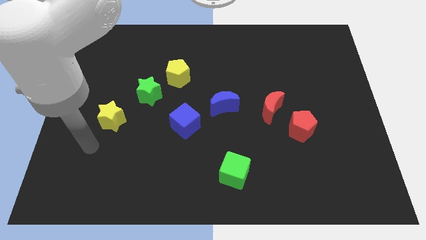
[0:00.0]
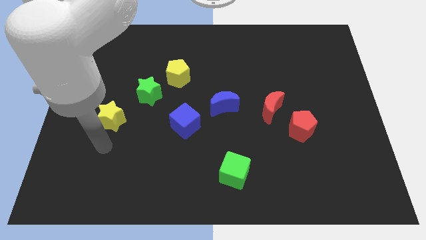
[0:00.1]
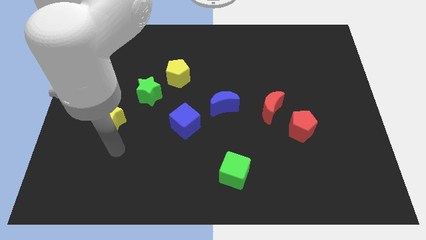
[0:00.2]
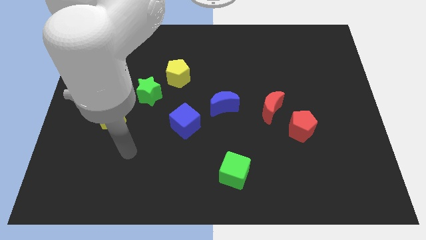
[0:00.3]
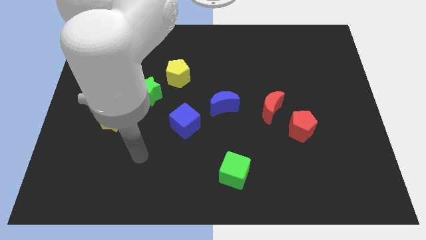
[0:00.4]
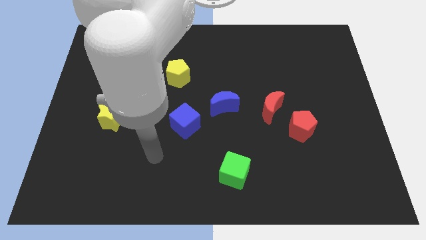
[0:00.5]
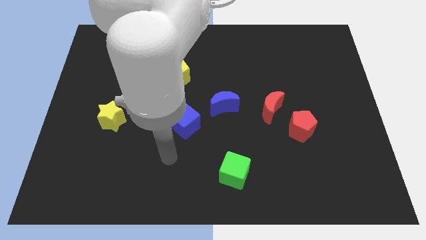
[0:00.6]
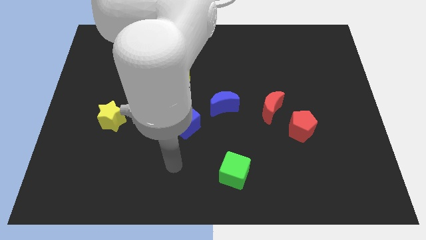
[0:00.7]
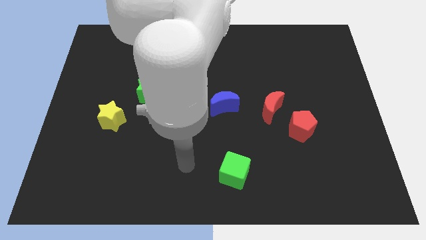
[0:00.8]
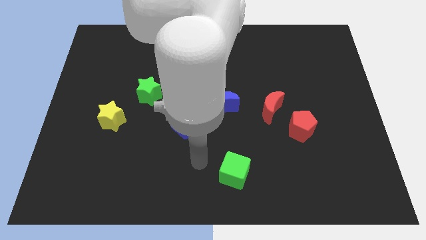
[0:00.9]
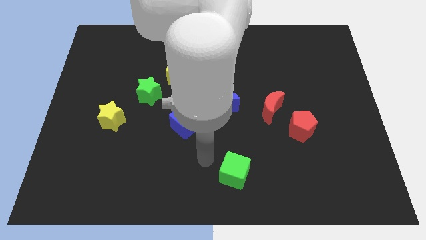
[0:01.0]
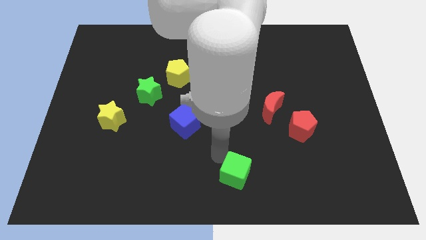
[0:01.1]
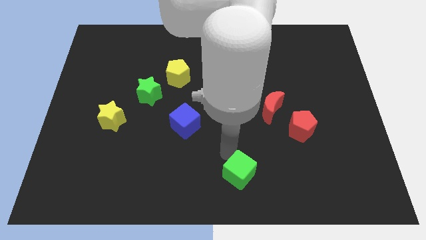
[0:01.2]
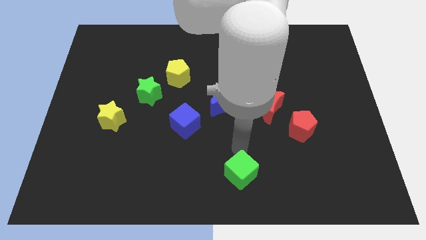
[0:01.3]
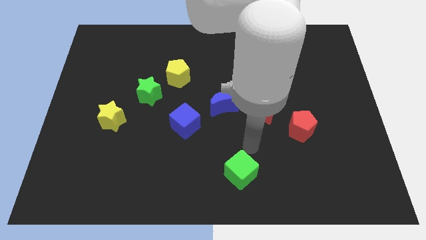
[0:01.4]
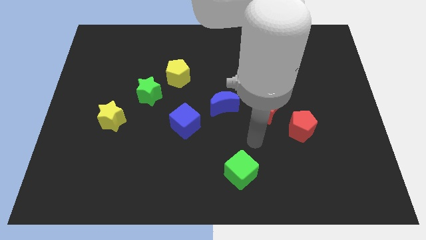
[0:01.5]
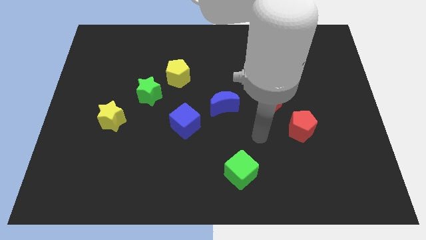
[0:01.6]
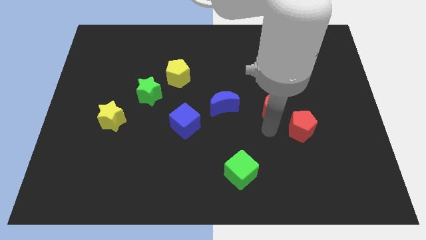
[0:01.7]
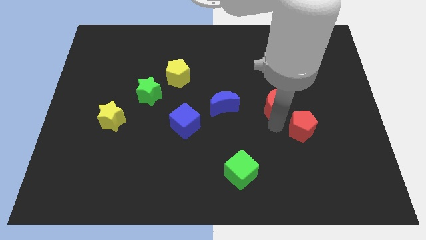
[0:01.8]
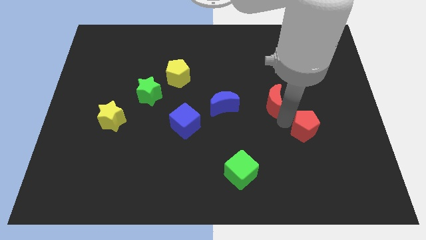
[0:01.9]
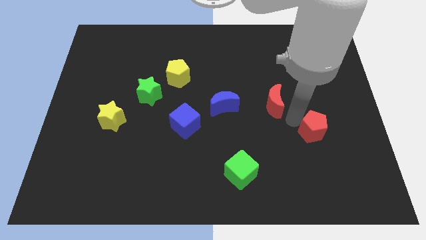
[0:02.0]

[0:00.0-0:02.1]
move the red moon away from the red pentagon

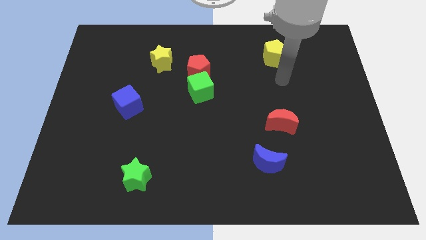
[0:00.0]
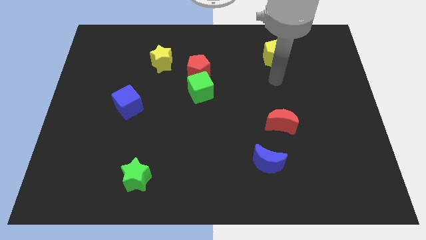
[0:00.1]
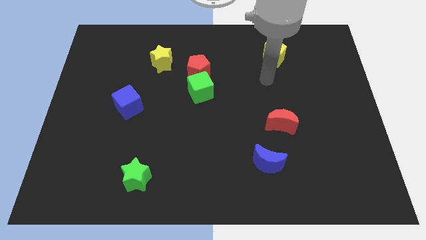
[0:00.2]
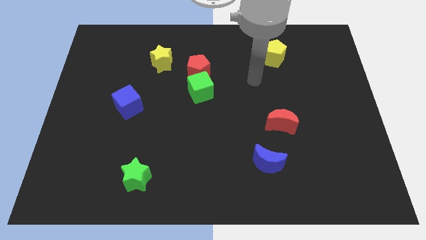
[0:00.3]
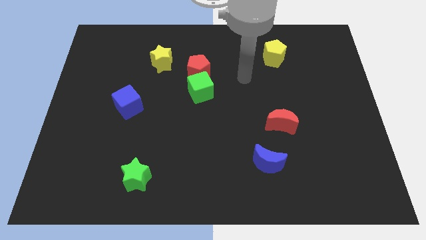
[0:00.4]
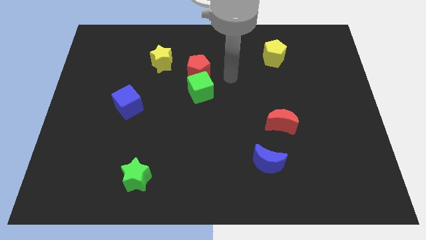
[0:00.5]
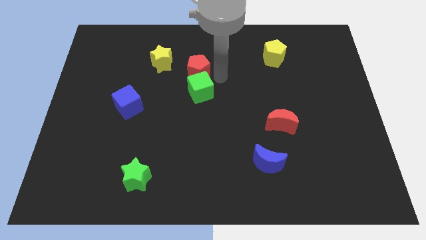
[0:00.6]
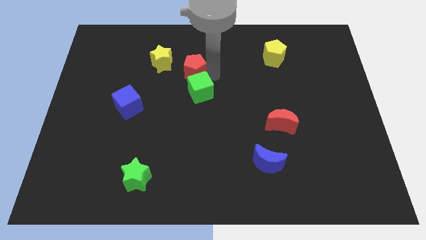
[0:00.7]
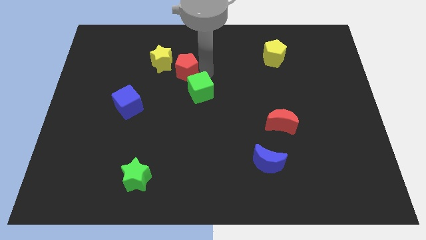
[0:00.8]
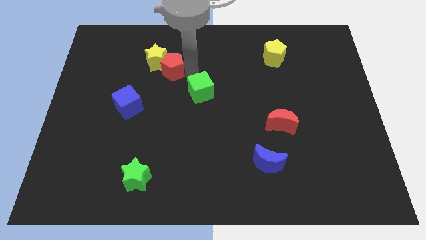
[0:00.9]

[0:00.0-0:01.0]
move the green cube away from the red pentagon

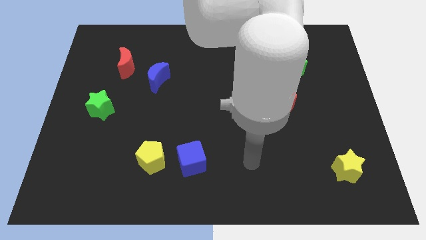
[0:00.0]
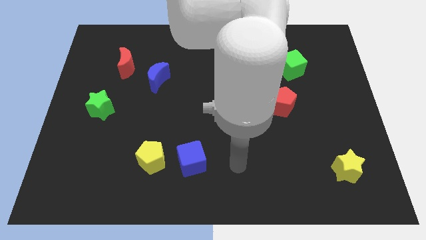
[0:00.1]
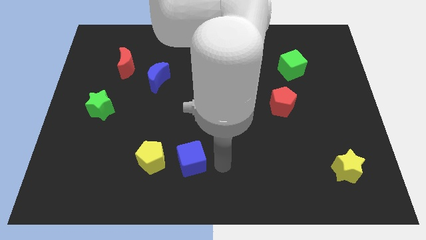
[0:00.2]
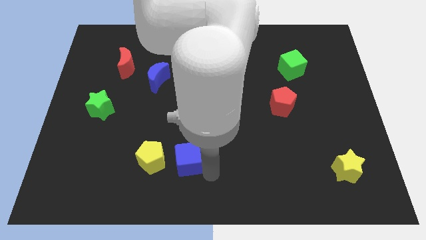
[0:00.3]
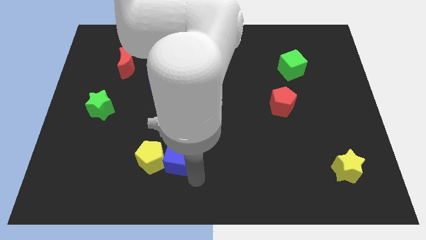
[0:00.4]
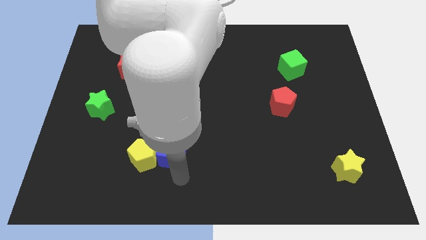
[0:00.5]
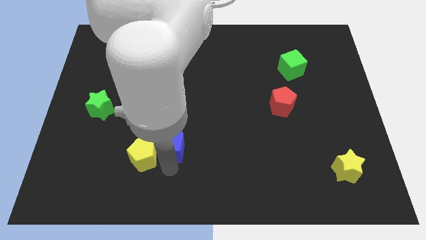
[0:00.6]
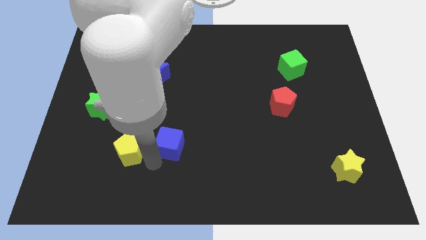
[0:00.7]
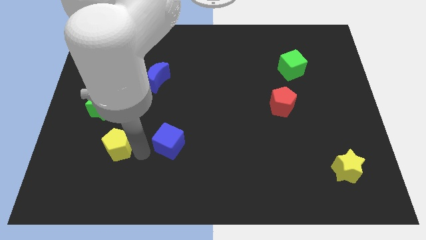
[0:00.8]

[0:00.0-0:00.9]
separate the blue cube from the yellow pentagon

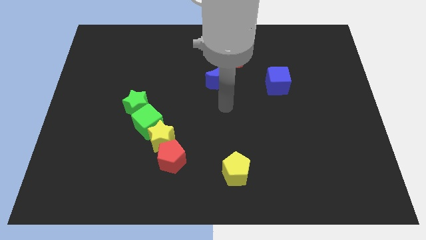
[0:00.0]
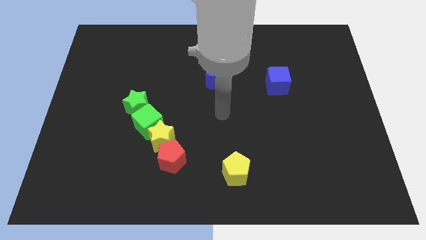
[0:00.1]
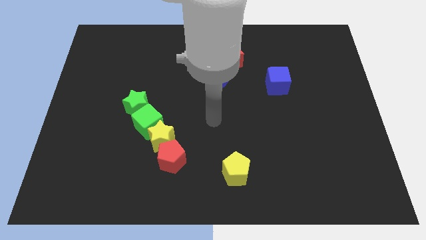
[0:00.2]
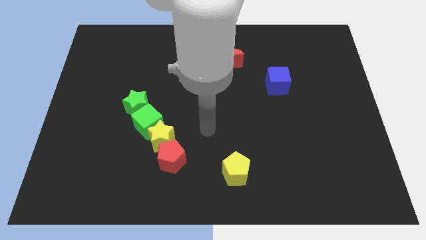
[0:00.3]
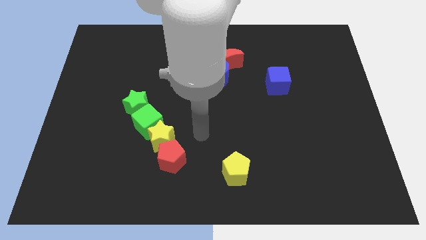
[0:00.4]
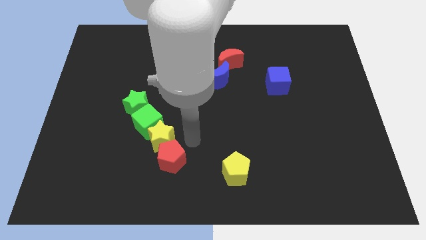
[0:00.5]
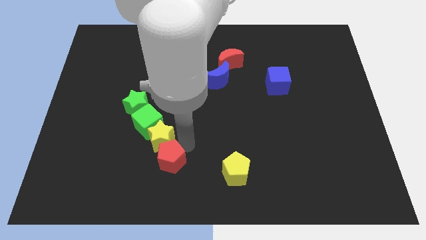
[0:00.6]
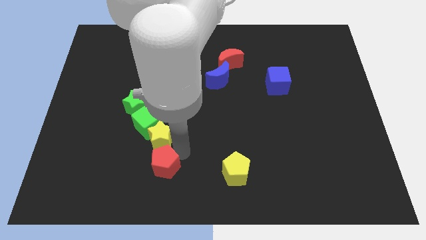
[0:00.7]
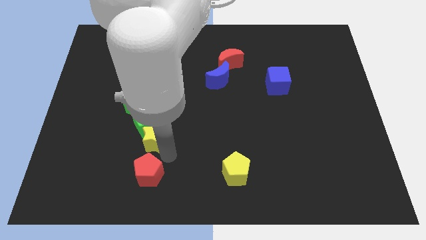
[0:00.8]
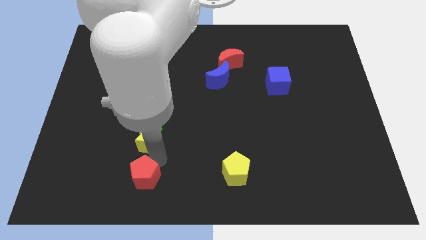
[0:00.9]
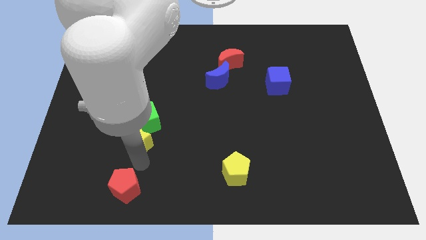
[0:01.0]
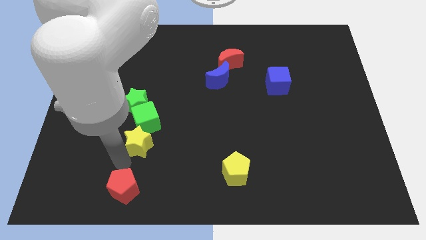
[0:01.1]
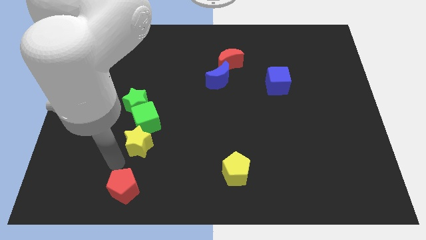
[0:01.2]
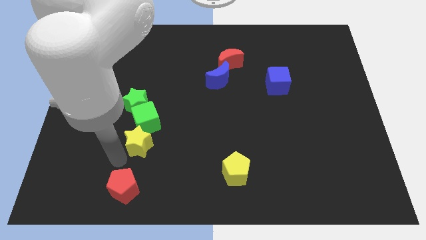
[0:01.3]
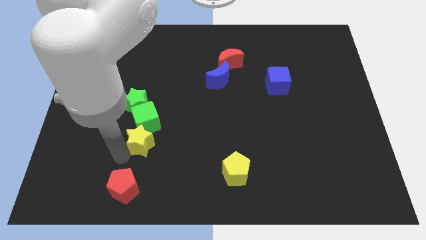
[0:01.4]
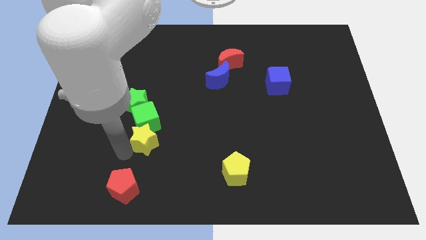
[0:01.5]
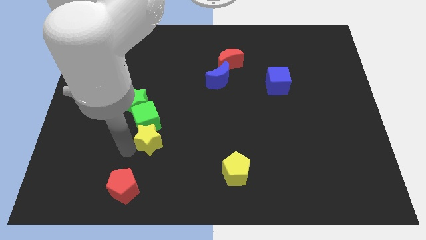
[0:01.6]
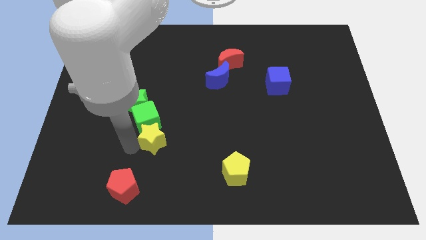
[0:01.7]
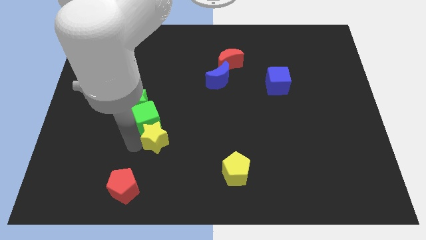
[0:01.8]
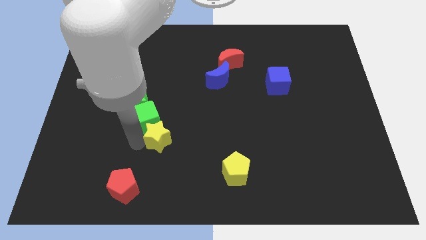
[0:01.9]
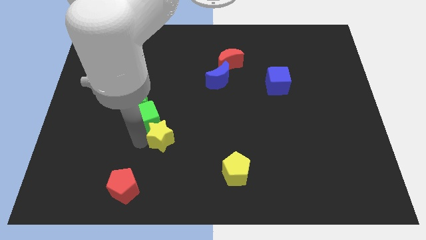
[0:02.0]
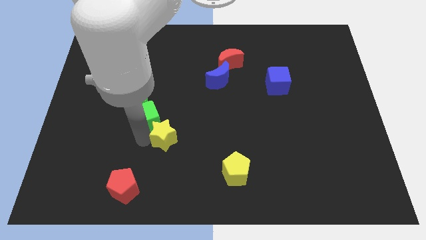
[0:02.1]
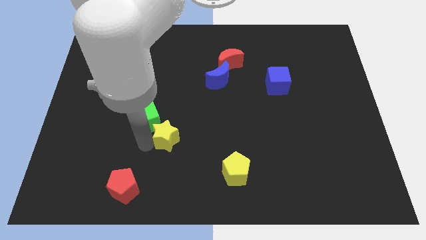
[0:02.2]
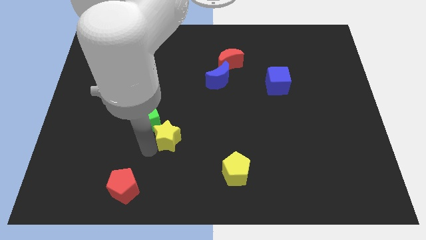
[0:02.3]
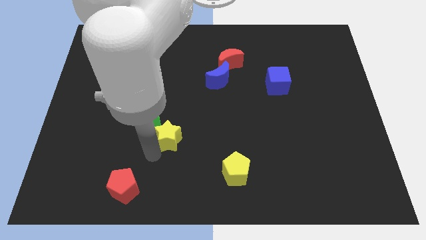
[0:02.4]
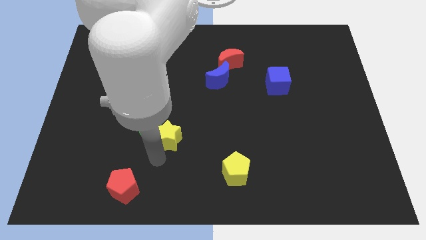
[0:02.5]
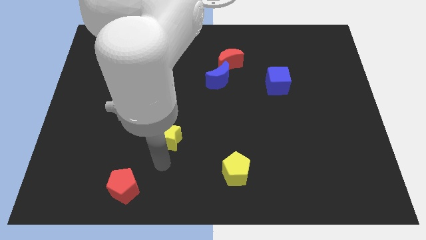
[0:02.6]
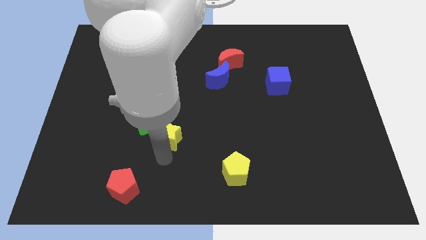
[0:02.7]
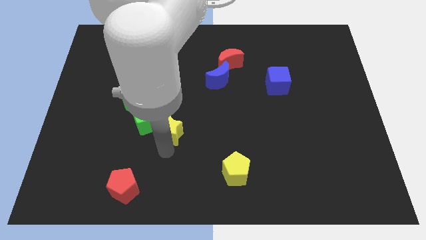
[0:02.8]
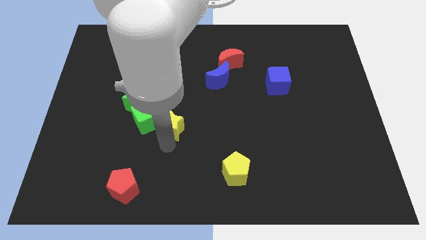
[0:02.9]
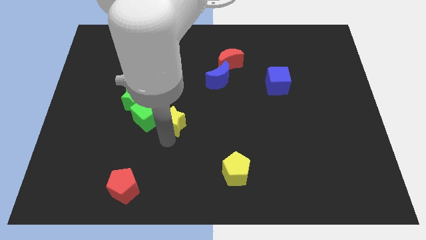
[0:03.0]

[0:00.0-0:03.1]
move the yellow star away from the green cube and red pentagon

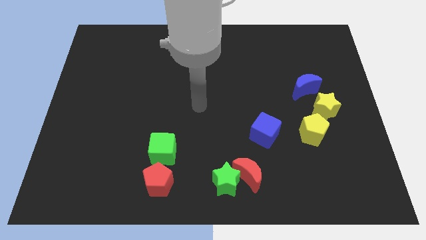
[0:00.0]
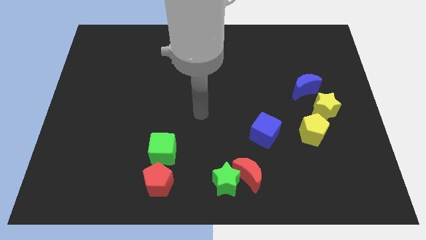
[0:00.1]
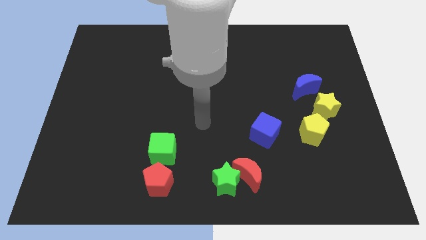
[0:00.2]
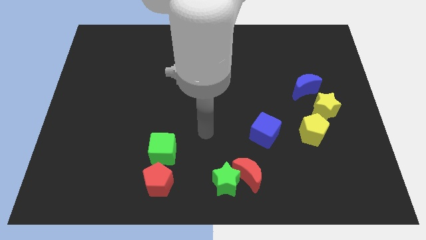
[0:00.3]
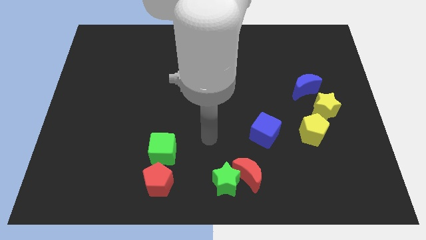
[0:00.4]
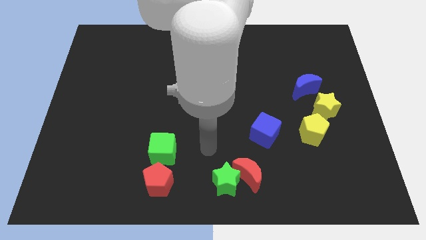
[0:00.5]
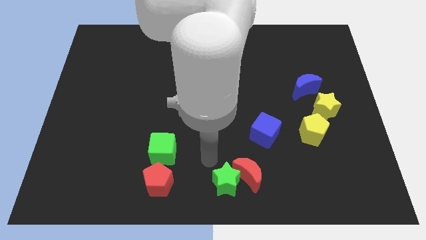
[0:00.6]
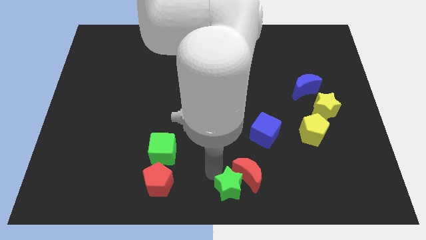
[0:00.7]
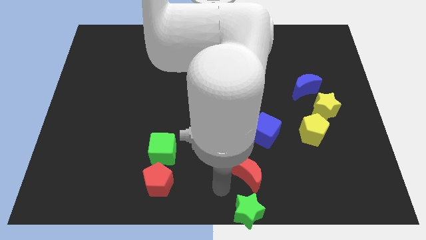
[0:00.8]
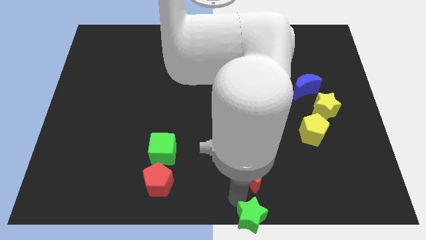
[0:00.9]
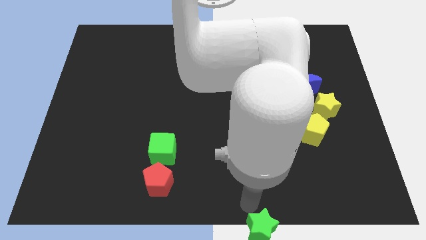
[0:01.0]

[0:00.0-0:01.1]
move the red moon away from the green star

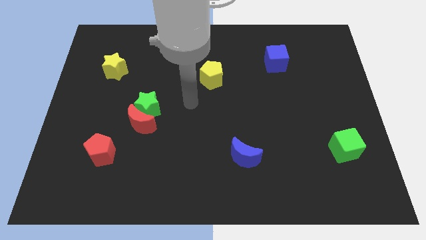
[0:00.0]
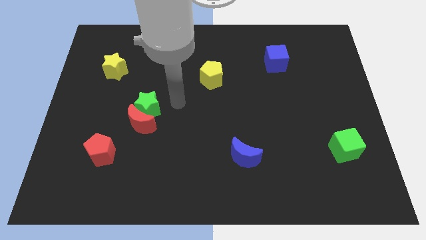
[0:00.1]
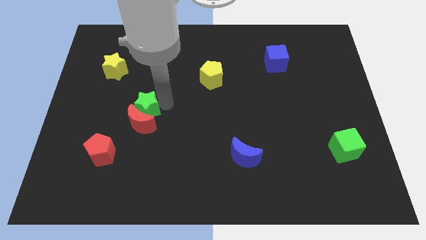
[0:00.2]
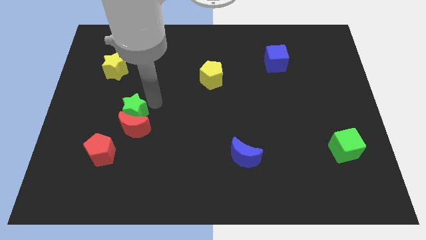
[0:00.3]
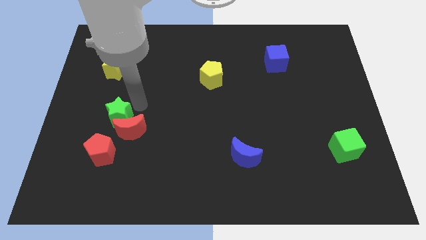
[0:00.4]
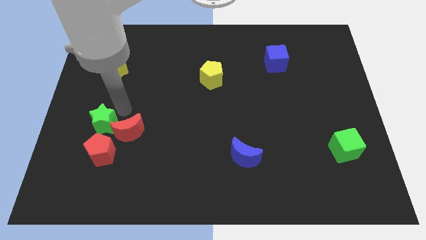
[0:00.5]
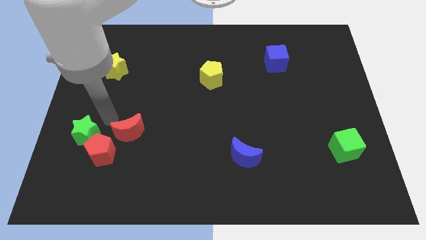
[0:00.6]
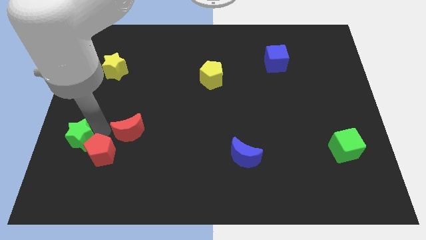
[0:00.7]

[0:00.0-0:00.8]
separate the red moon from the green star

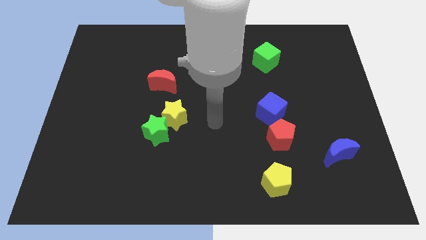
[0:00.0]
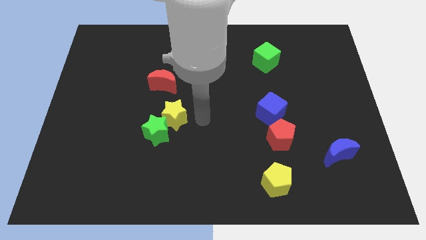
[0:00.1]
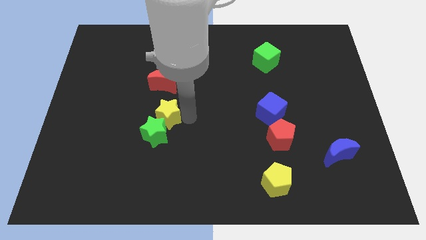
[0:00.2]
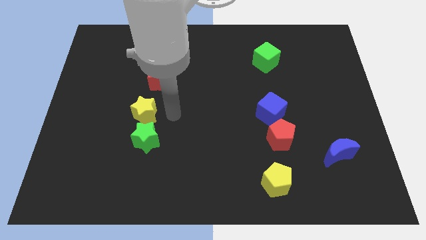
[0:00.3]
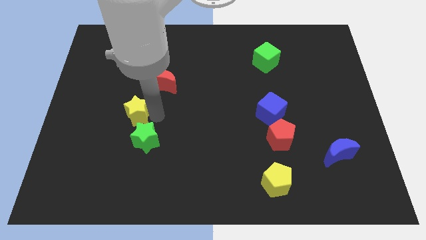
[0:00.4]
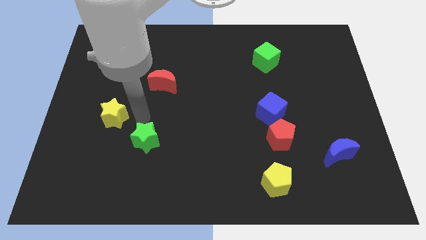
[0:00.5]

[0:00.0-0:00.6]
separate the green star from the yellow star
